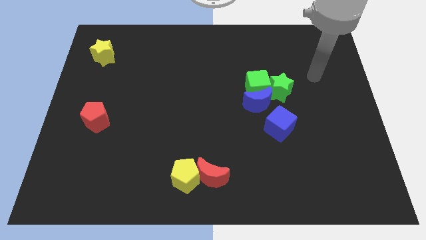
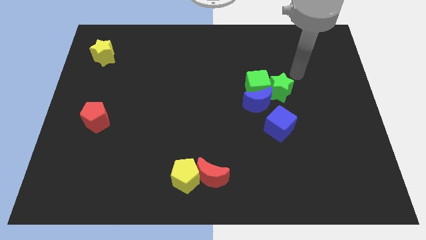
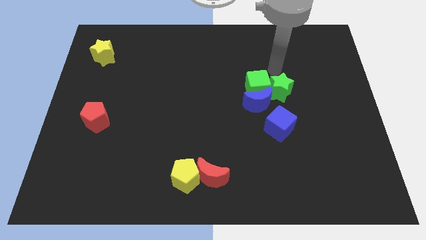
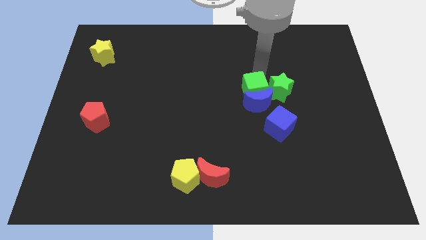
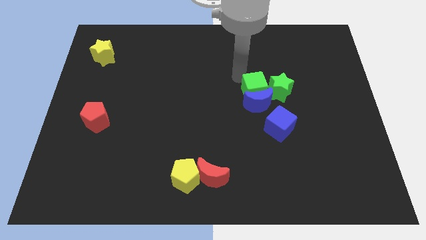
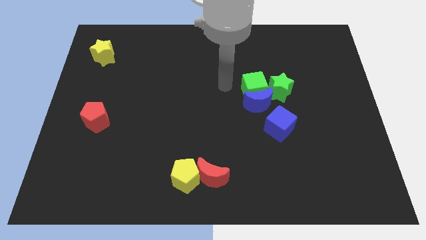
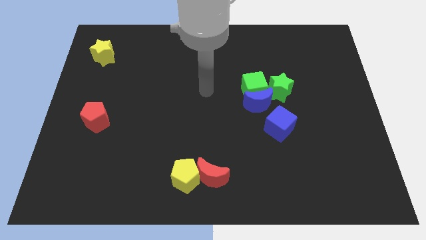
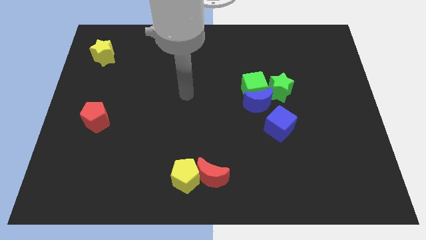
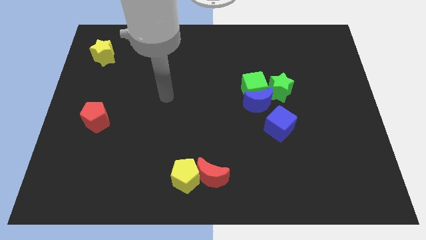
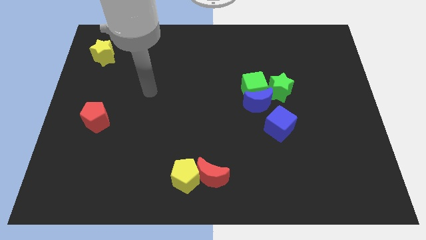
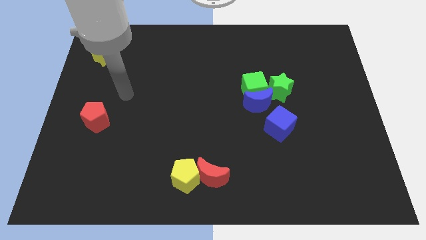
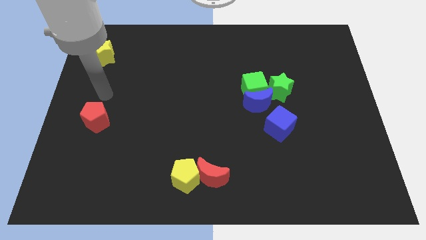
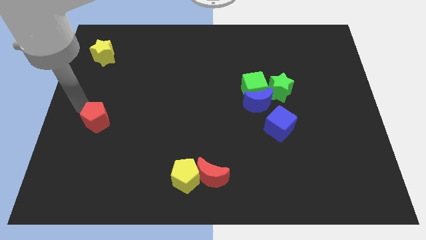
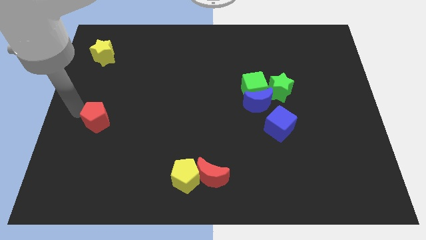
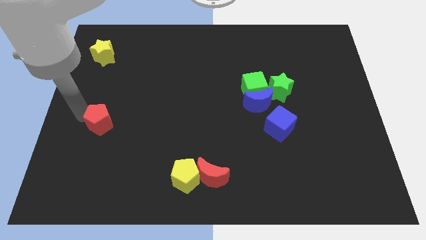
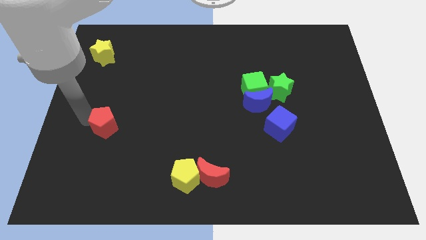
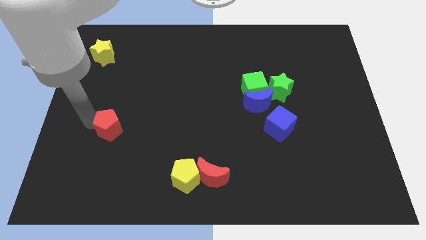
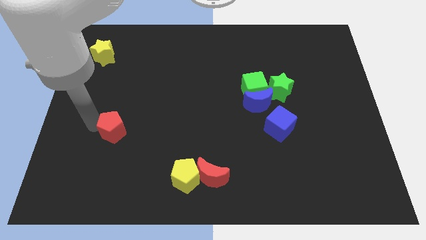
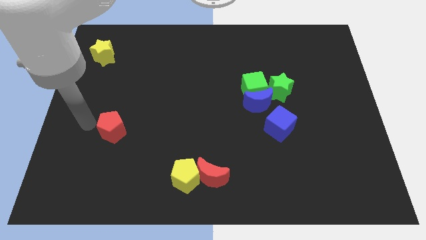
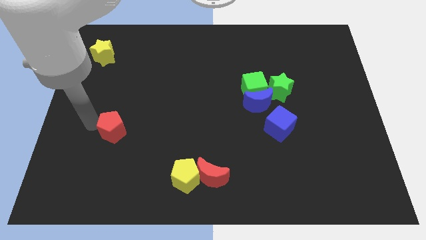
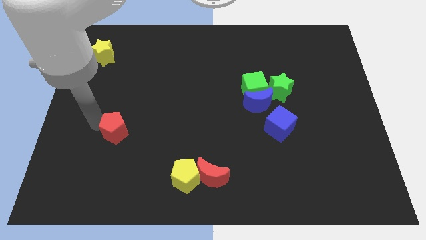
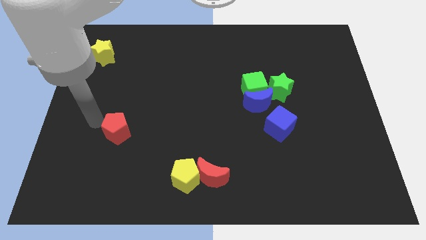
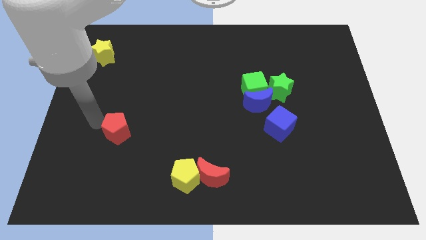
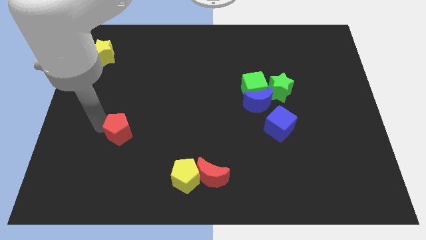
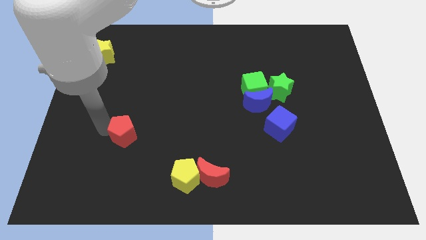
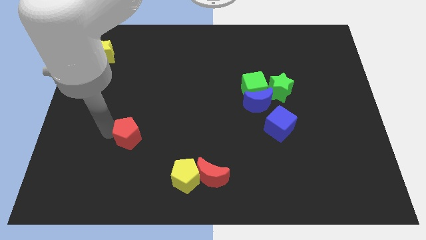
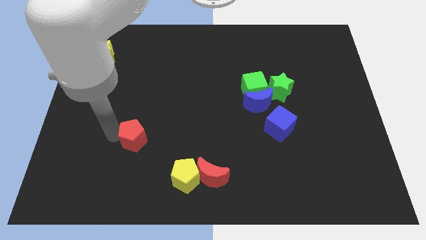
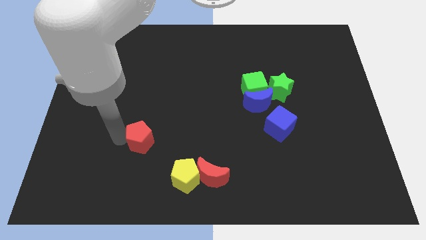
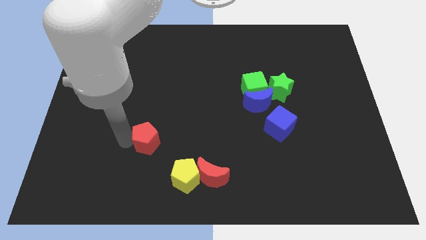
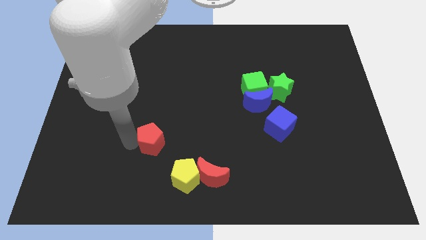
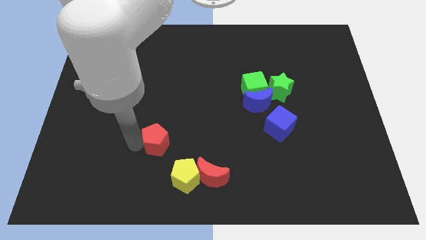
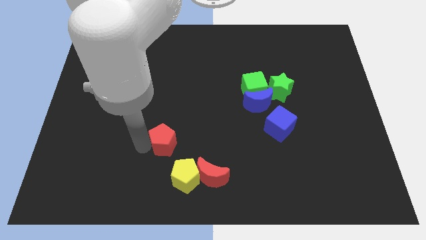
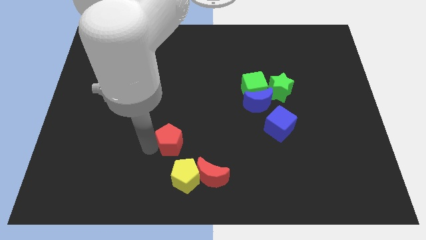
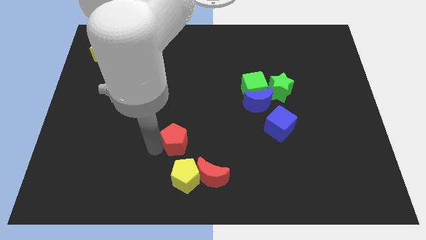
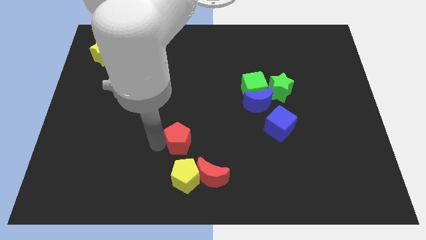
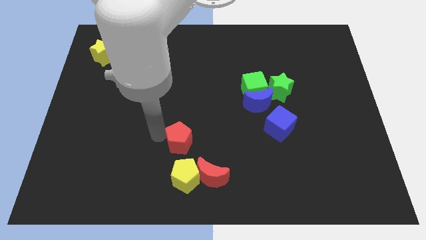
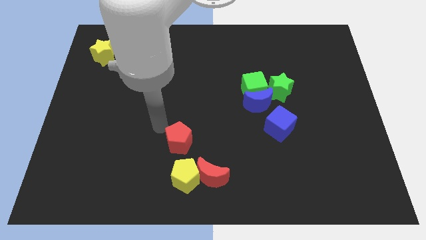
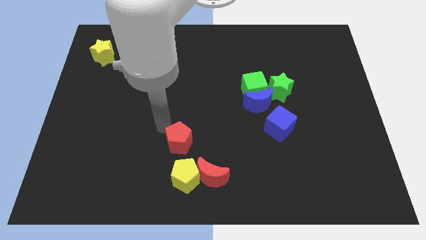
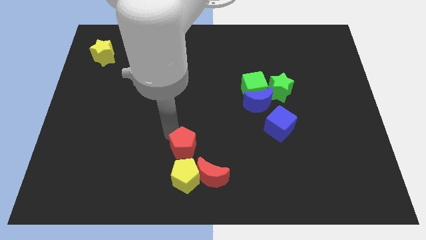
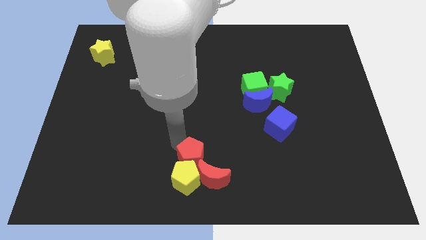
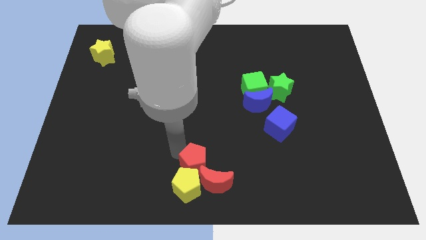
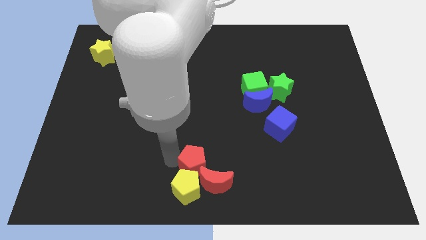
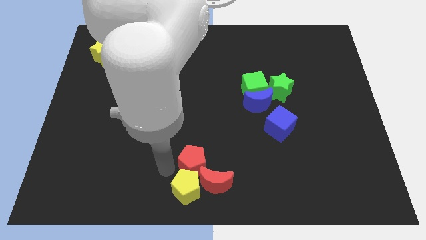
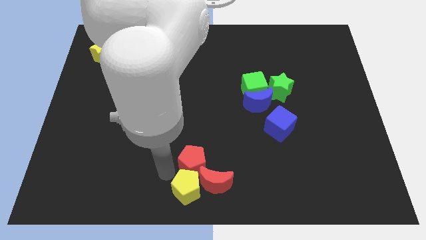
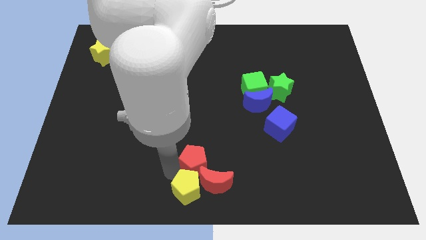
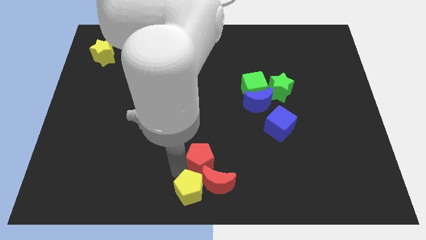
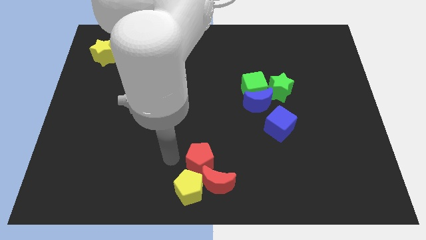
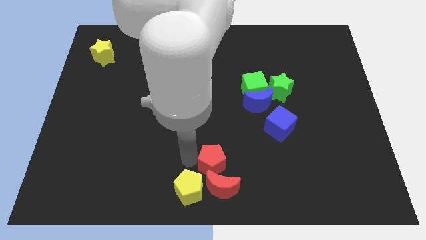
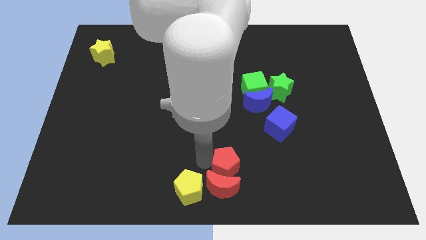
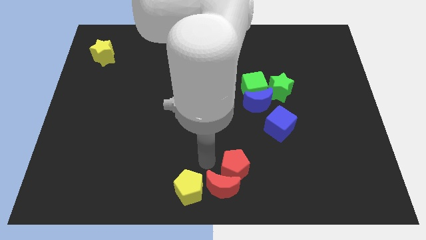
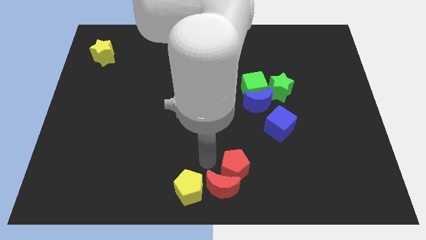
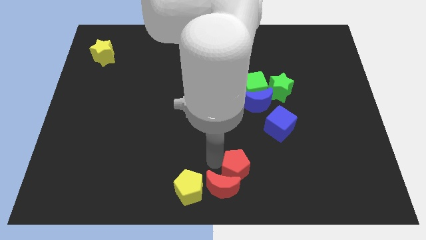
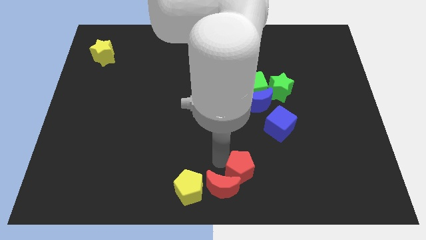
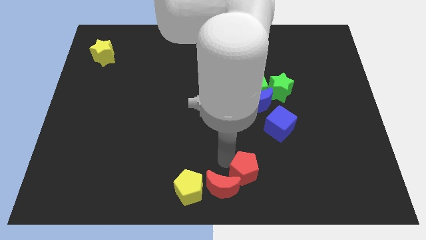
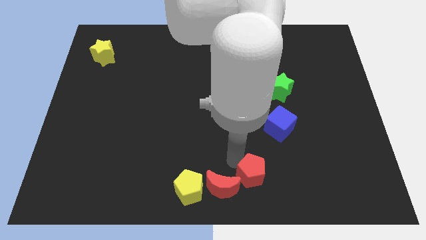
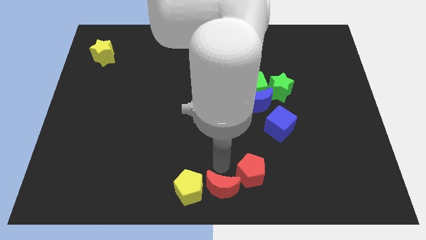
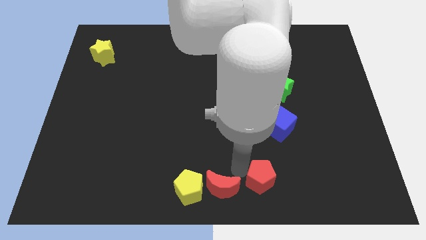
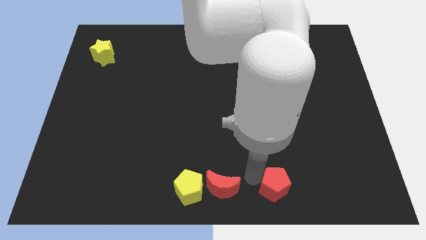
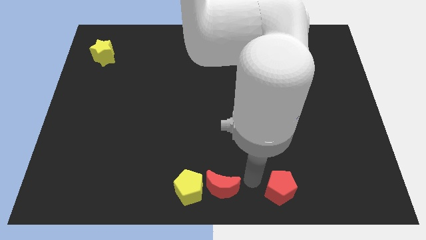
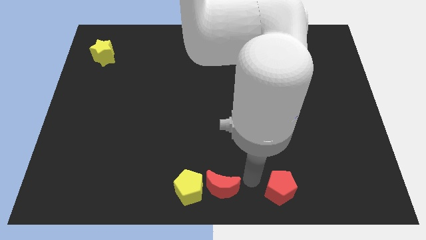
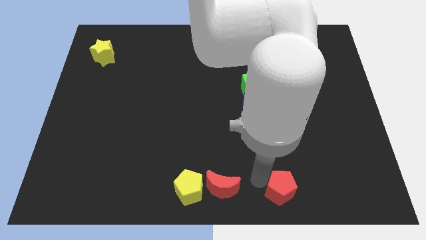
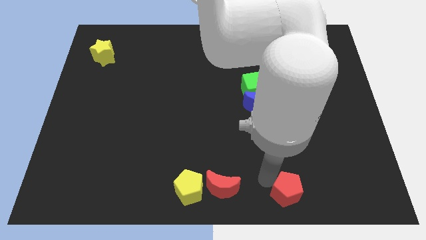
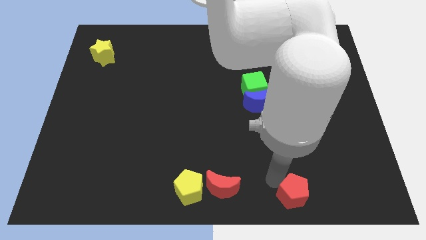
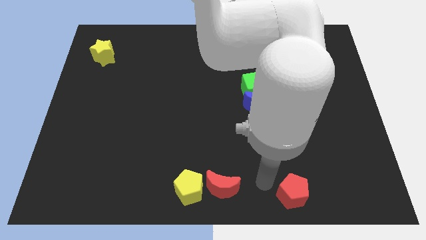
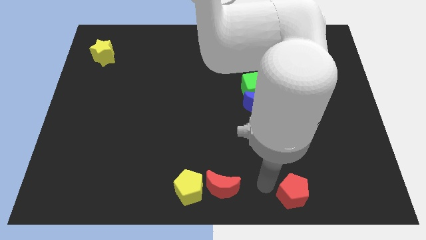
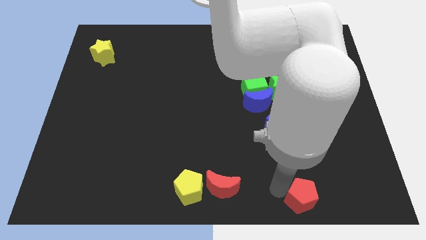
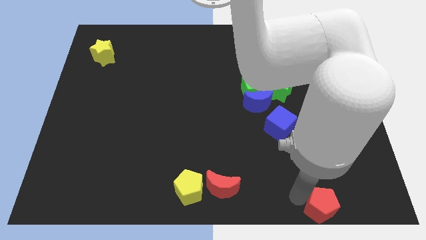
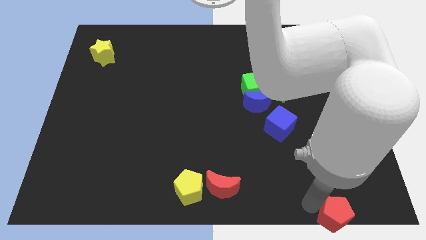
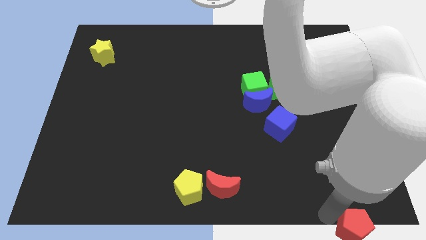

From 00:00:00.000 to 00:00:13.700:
push the red pentagon to the lower right corner
